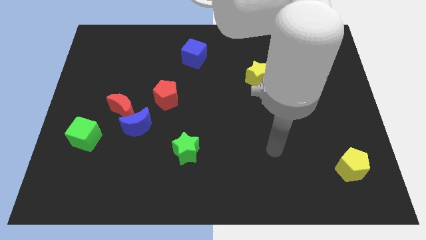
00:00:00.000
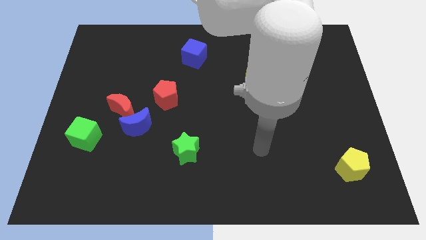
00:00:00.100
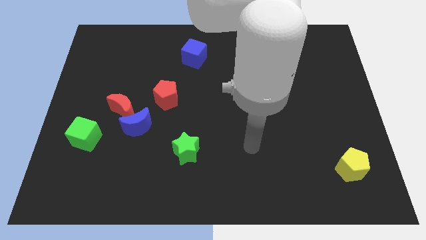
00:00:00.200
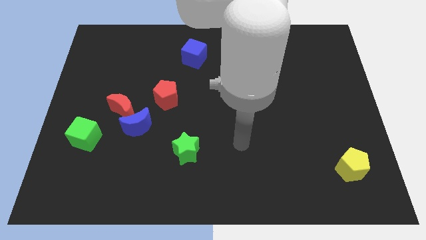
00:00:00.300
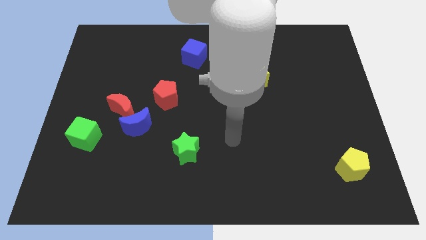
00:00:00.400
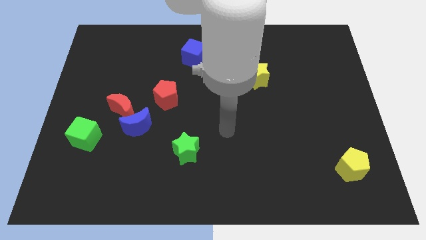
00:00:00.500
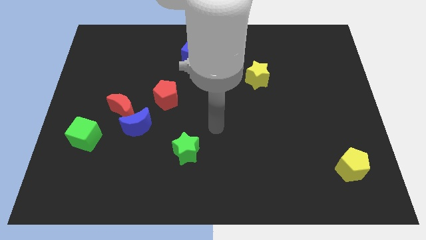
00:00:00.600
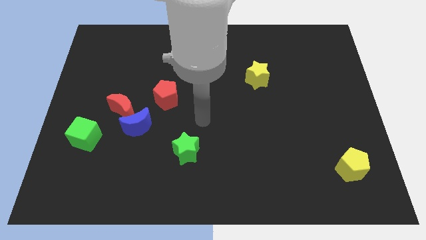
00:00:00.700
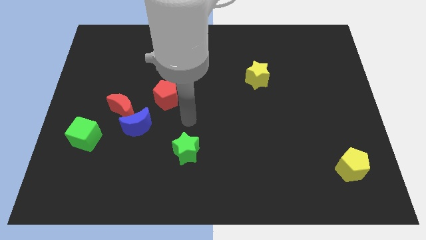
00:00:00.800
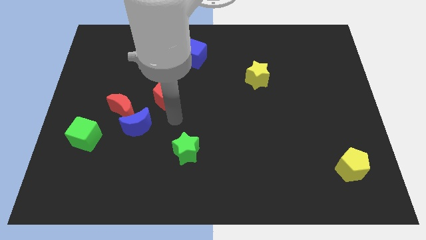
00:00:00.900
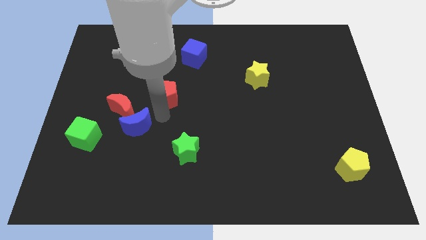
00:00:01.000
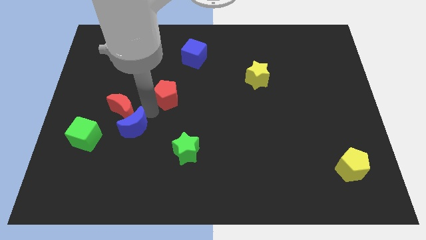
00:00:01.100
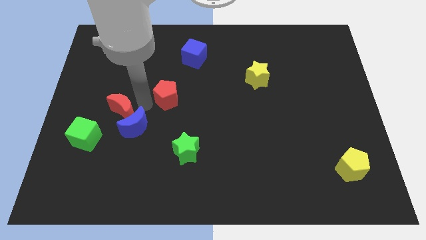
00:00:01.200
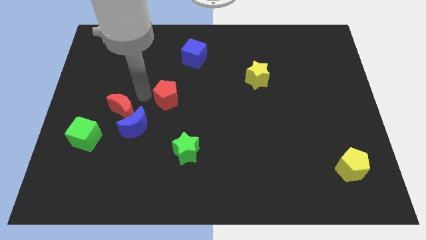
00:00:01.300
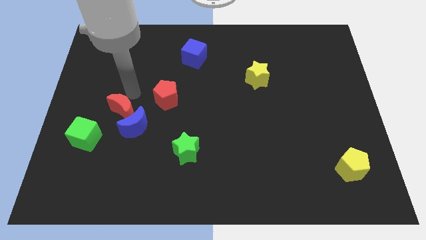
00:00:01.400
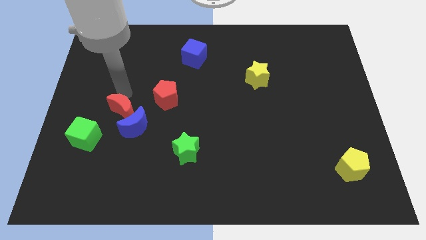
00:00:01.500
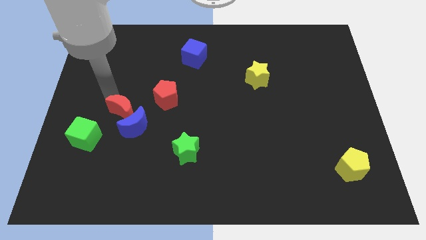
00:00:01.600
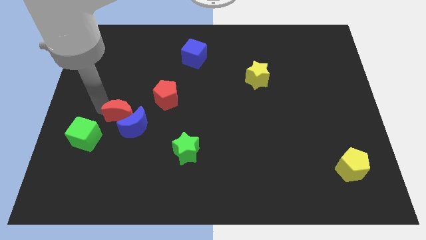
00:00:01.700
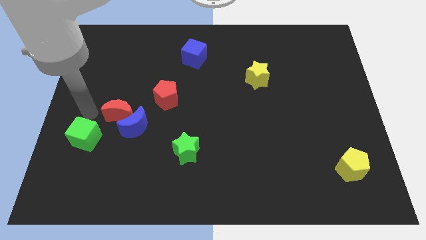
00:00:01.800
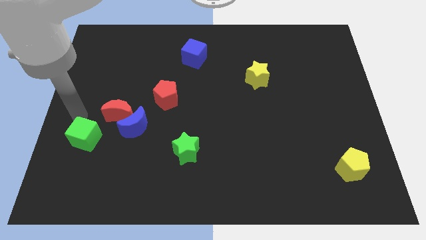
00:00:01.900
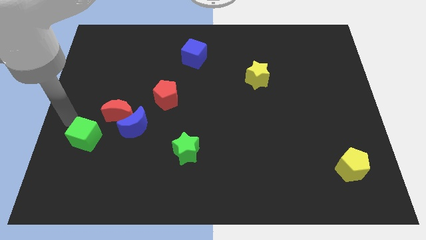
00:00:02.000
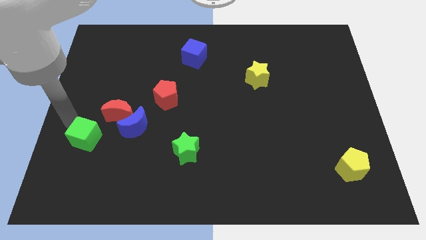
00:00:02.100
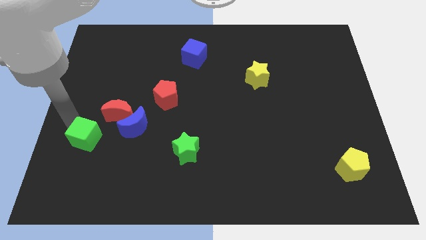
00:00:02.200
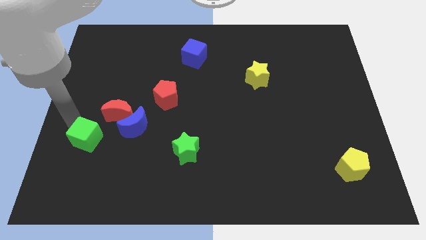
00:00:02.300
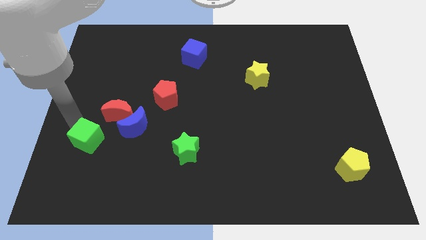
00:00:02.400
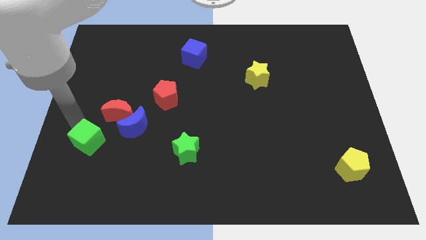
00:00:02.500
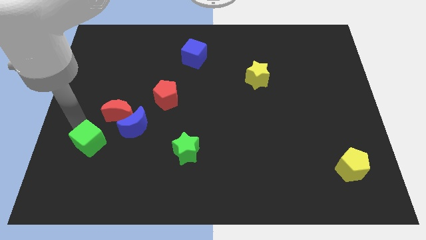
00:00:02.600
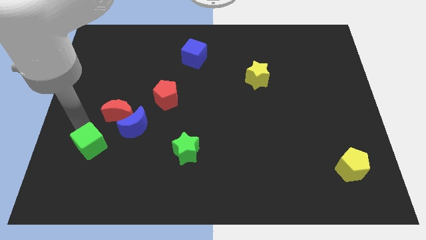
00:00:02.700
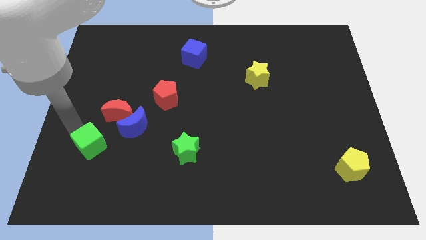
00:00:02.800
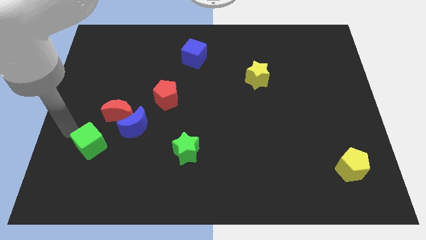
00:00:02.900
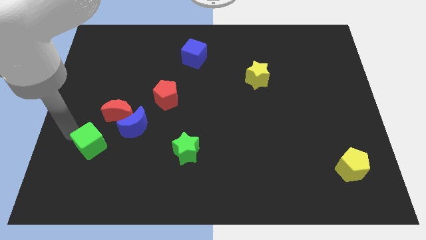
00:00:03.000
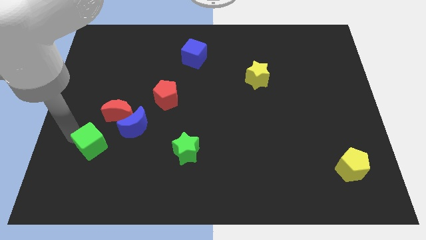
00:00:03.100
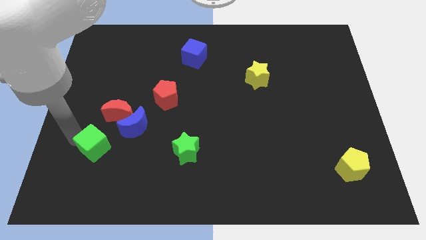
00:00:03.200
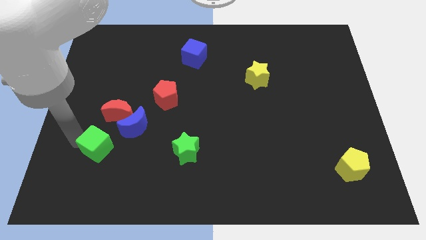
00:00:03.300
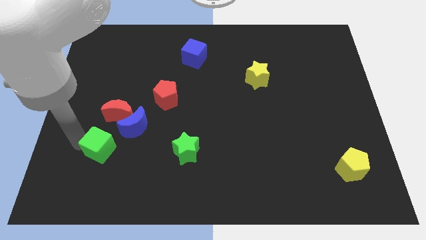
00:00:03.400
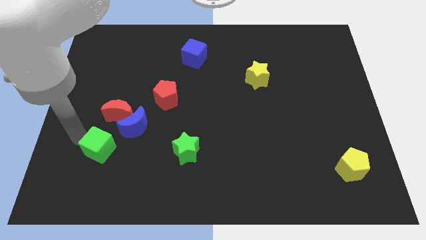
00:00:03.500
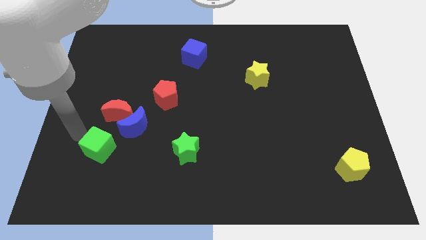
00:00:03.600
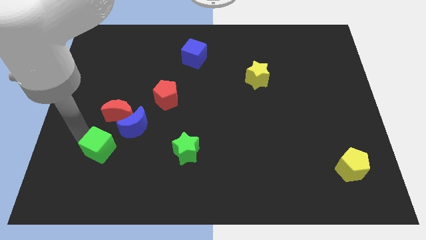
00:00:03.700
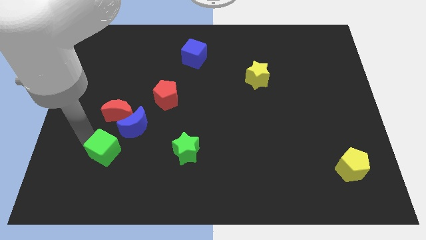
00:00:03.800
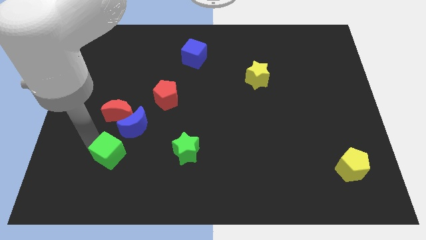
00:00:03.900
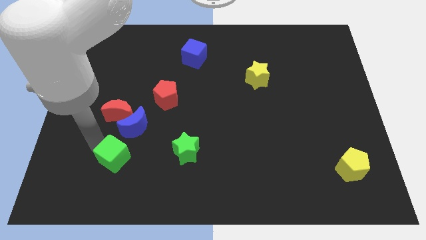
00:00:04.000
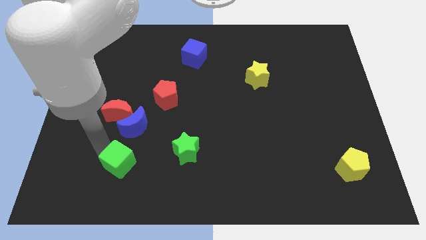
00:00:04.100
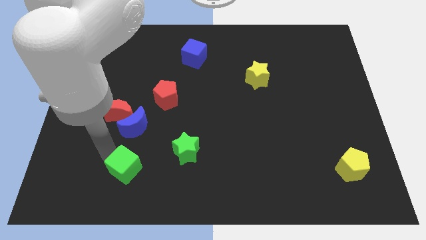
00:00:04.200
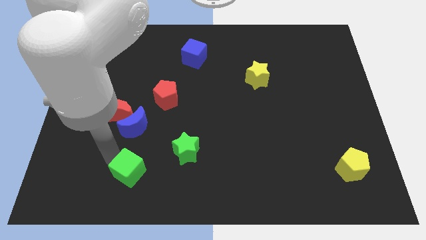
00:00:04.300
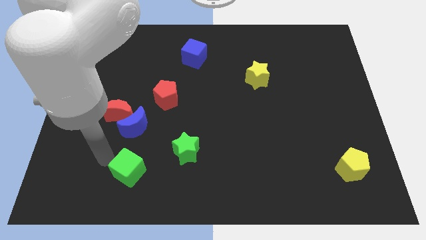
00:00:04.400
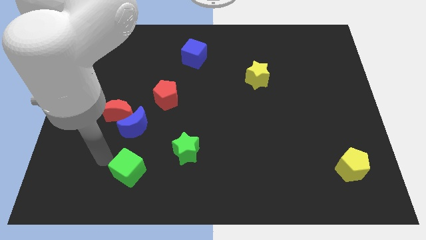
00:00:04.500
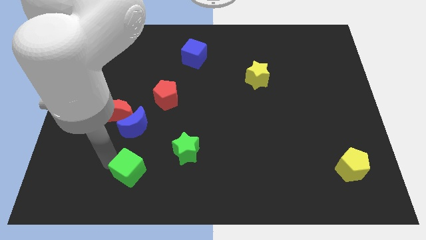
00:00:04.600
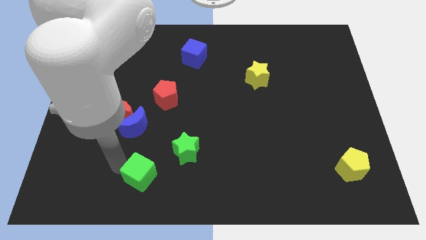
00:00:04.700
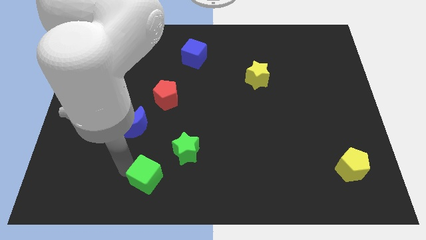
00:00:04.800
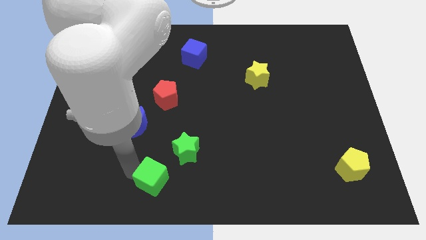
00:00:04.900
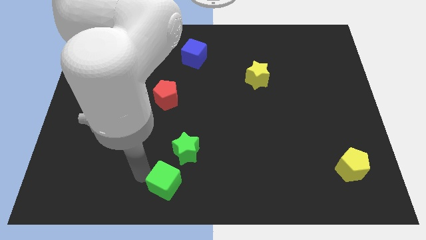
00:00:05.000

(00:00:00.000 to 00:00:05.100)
push the green cube to the bottom side

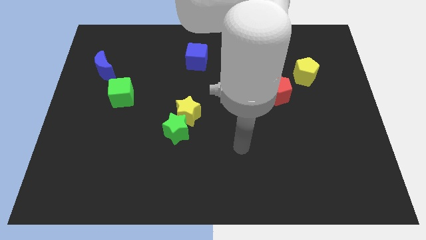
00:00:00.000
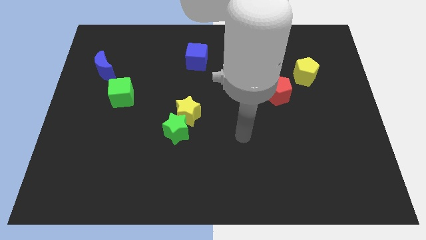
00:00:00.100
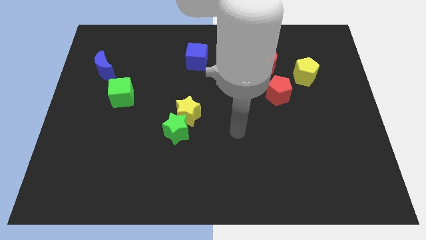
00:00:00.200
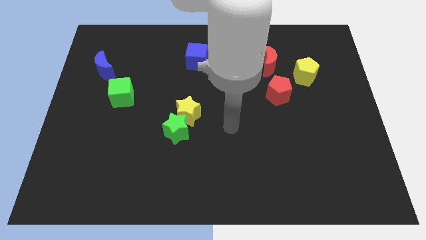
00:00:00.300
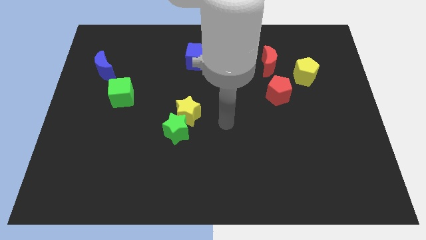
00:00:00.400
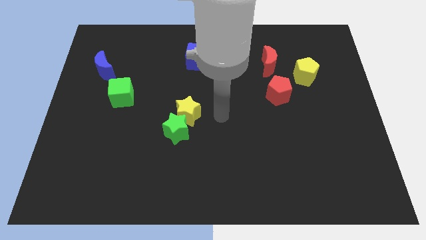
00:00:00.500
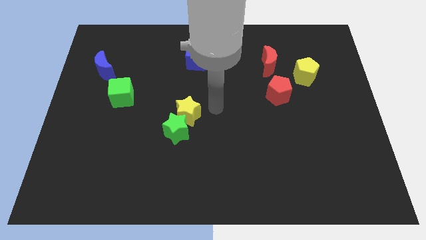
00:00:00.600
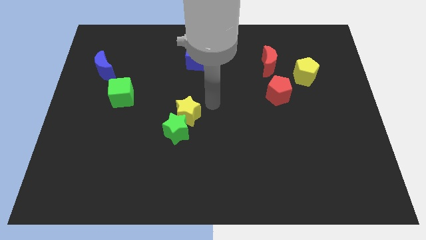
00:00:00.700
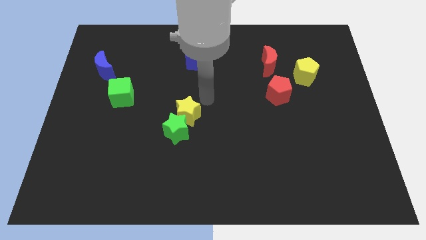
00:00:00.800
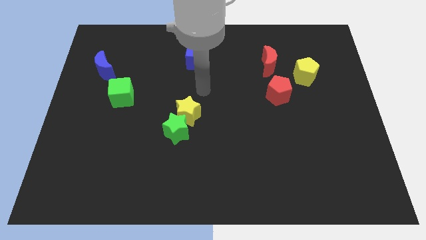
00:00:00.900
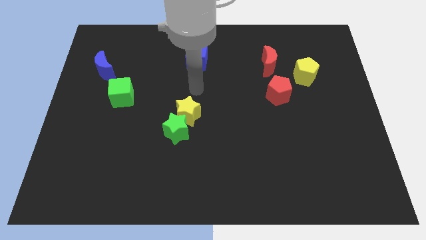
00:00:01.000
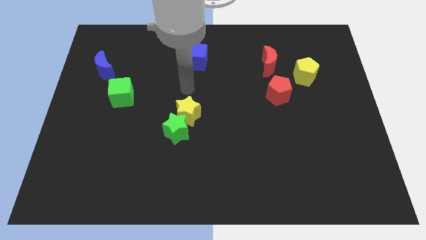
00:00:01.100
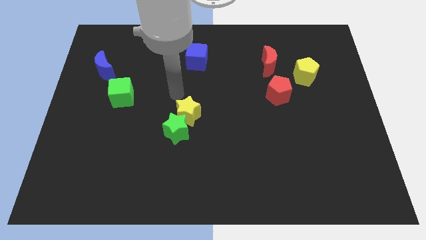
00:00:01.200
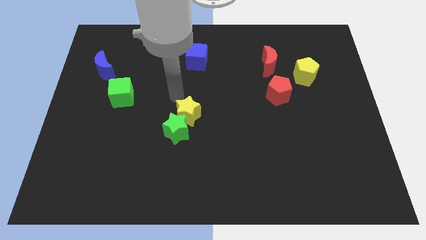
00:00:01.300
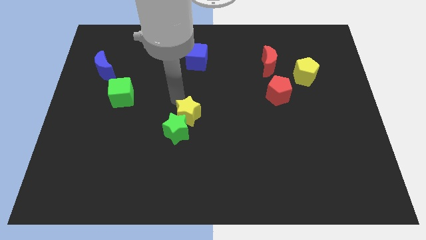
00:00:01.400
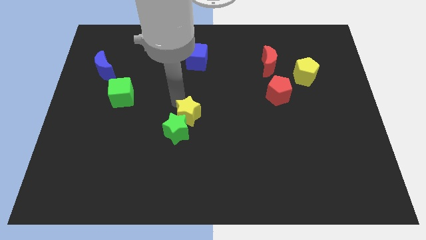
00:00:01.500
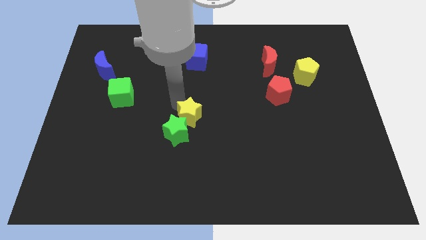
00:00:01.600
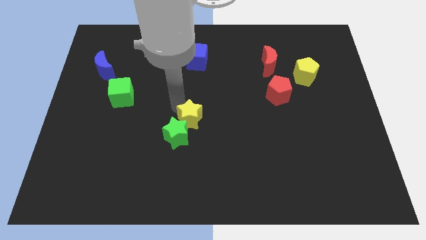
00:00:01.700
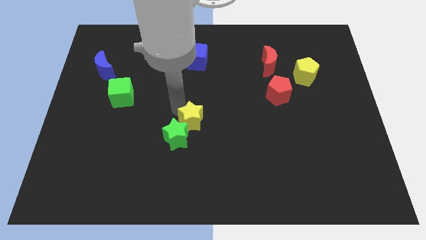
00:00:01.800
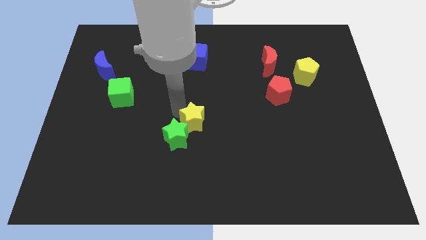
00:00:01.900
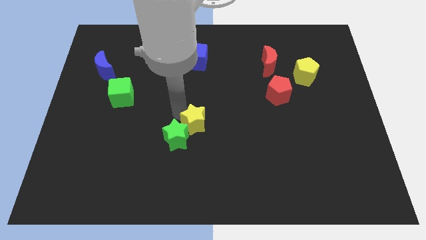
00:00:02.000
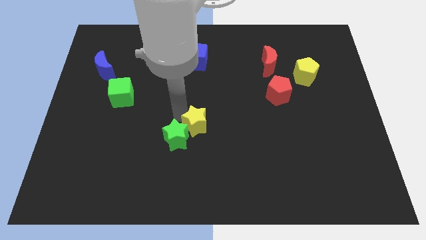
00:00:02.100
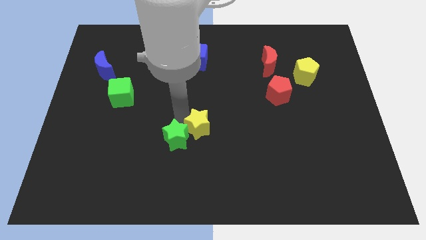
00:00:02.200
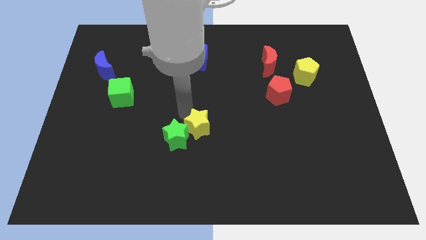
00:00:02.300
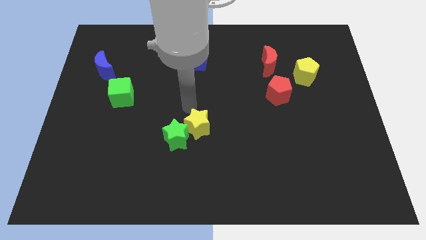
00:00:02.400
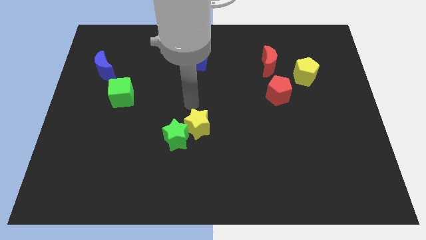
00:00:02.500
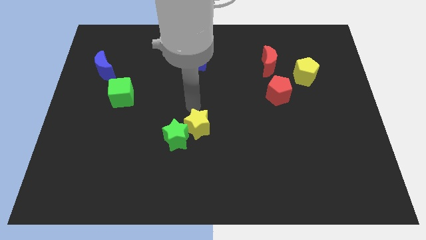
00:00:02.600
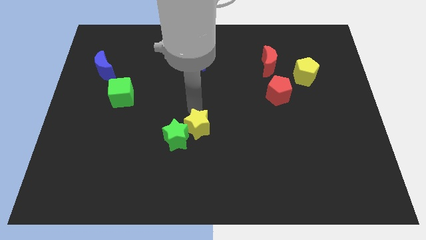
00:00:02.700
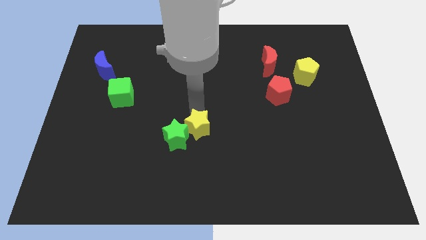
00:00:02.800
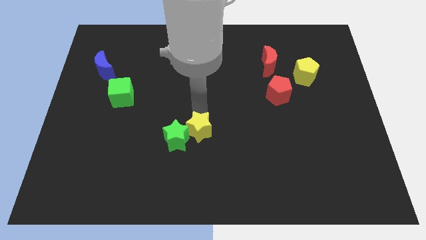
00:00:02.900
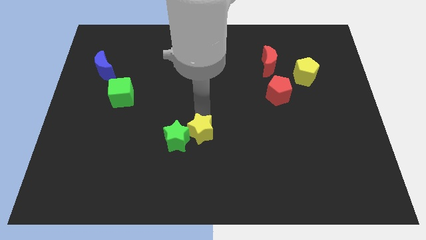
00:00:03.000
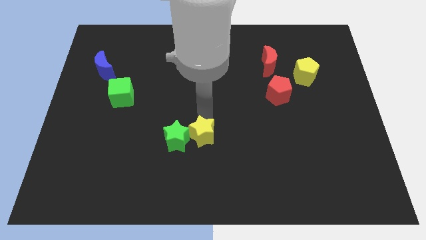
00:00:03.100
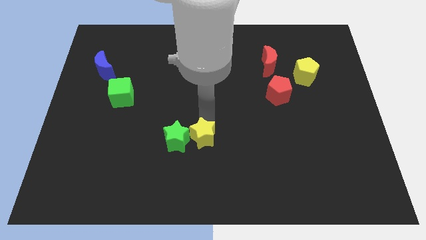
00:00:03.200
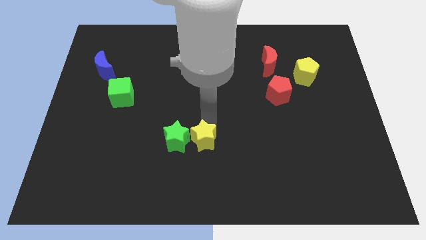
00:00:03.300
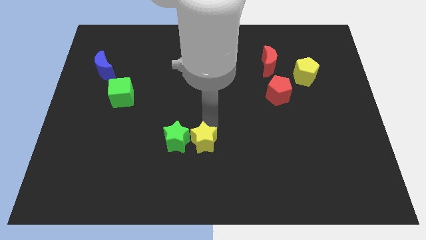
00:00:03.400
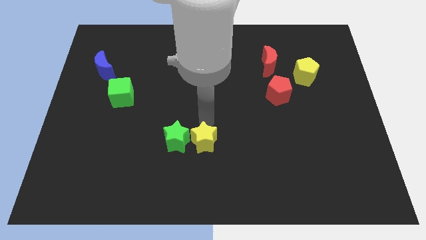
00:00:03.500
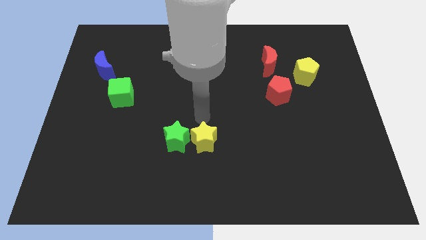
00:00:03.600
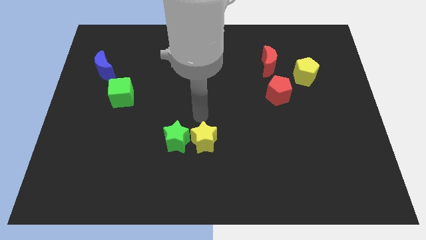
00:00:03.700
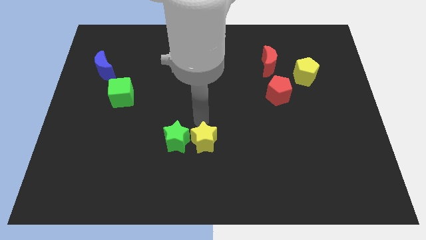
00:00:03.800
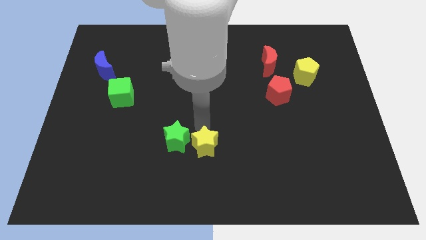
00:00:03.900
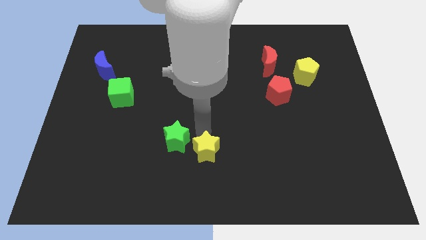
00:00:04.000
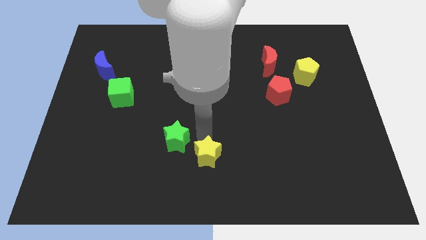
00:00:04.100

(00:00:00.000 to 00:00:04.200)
put the yellow star to the bottom
